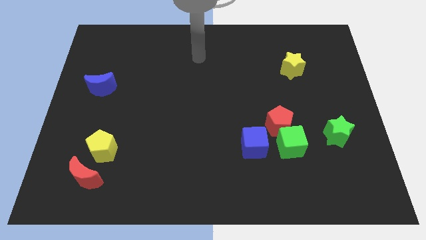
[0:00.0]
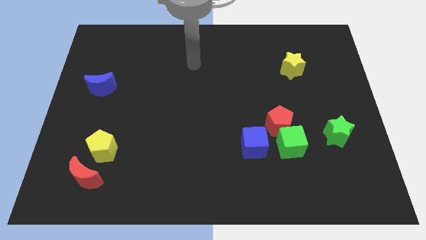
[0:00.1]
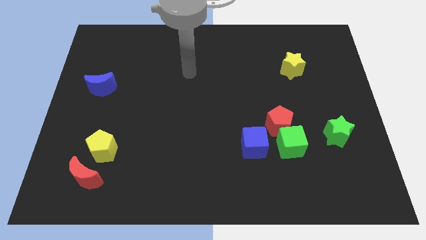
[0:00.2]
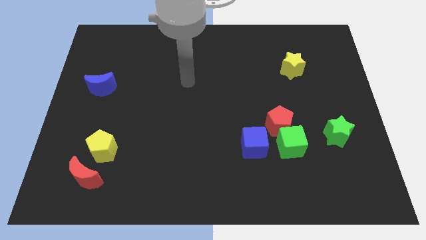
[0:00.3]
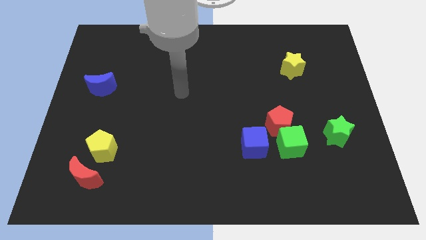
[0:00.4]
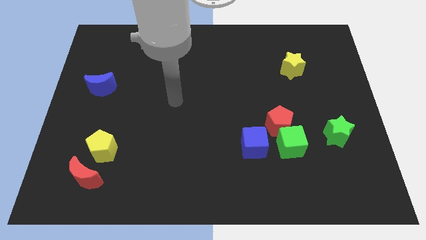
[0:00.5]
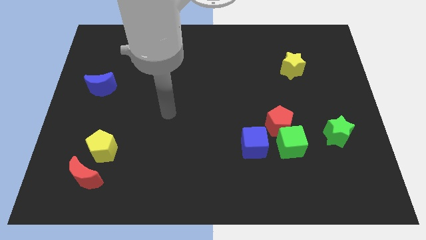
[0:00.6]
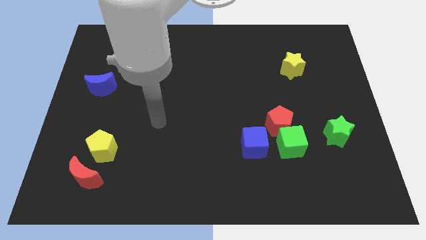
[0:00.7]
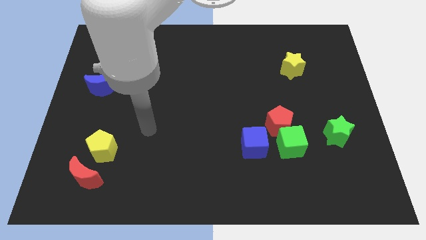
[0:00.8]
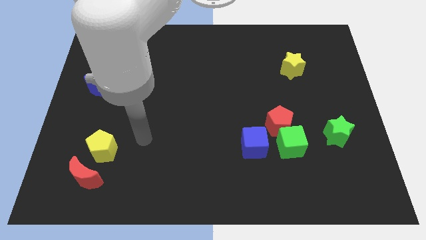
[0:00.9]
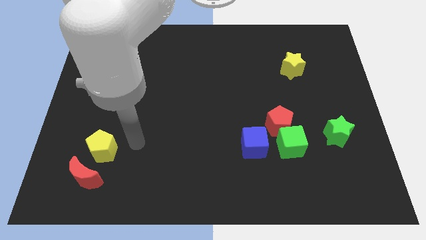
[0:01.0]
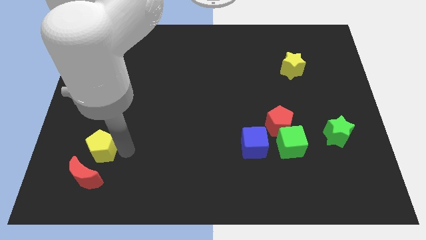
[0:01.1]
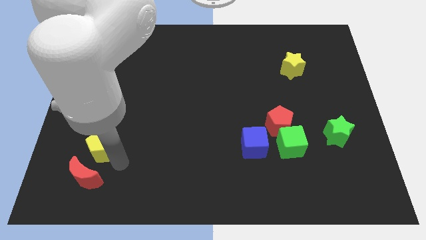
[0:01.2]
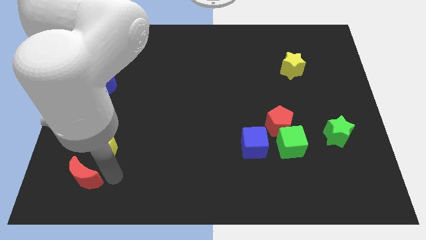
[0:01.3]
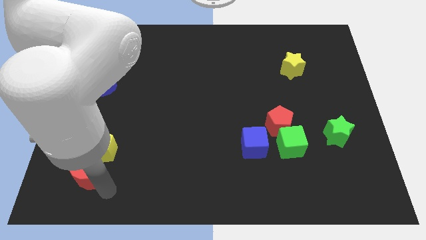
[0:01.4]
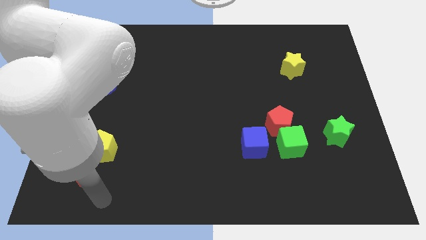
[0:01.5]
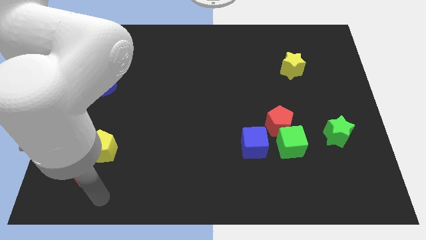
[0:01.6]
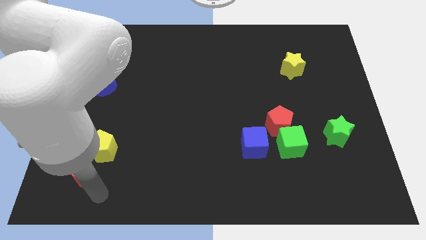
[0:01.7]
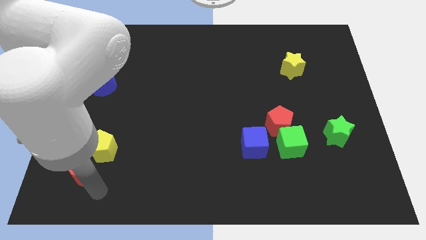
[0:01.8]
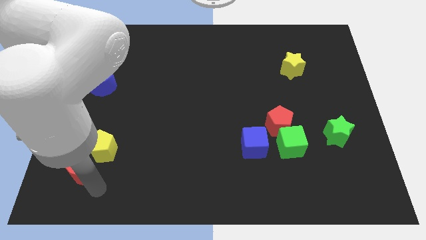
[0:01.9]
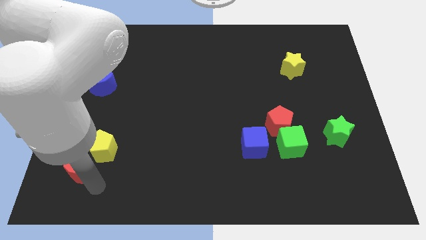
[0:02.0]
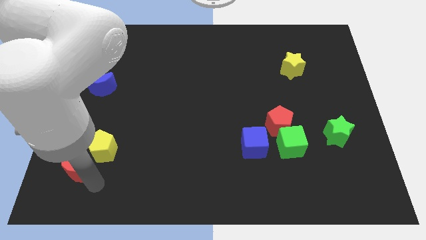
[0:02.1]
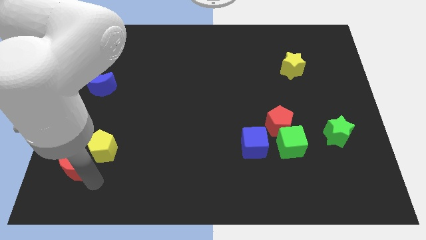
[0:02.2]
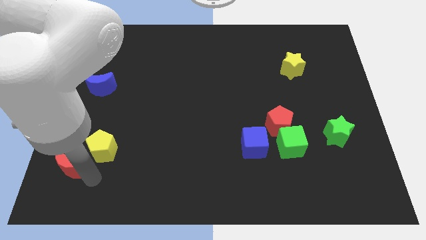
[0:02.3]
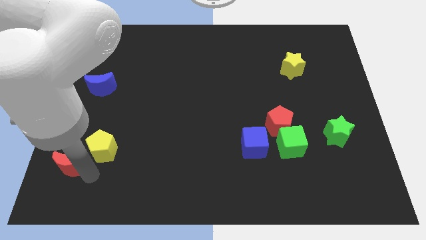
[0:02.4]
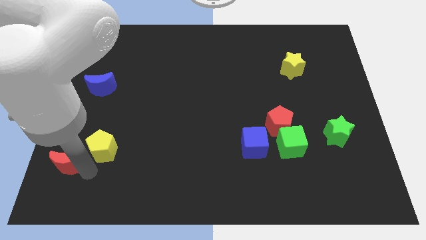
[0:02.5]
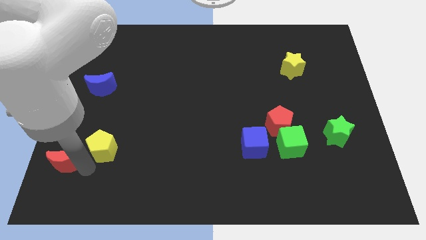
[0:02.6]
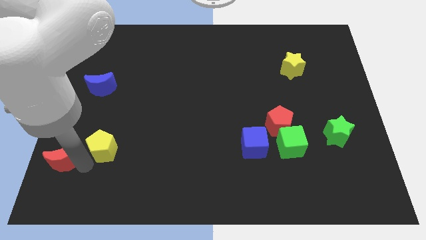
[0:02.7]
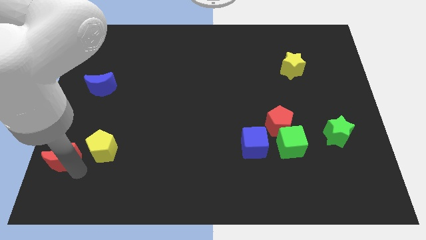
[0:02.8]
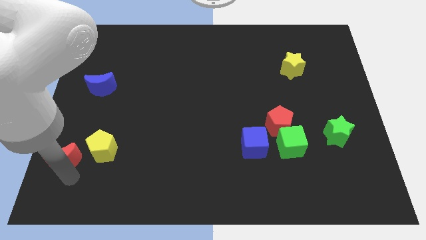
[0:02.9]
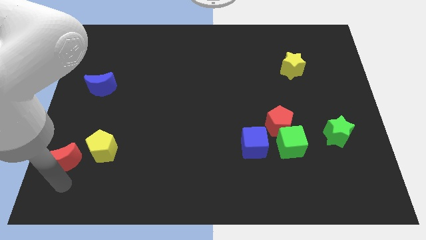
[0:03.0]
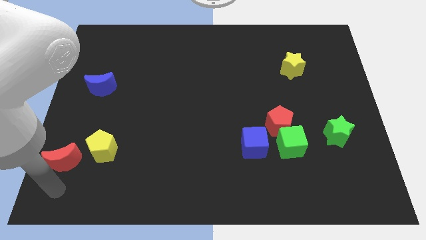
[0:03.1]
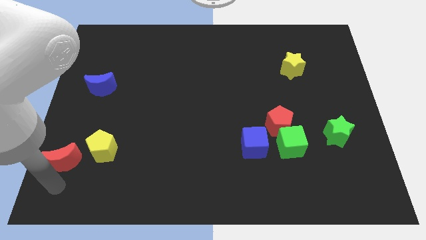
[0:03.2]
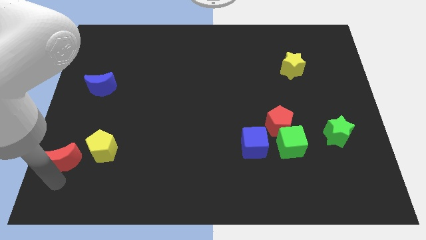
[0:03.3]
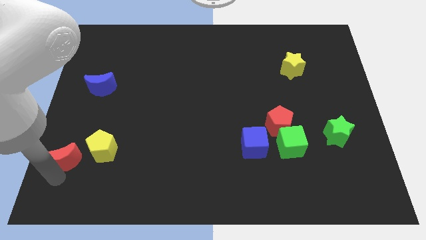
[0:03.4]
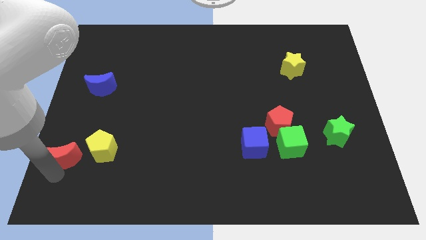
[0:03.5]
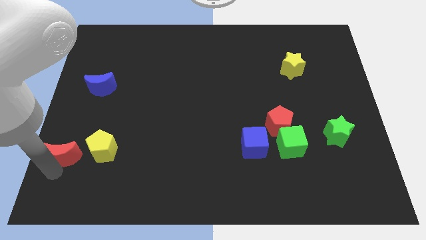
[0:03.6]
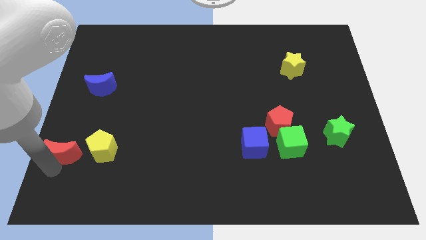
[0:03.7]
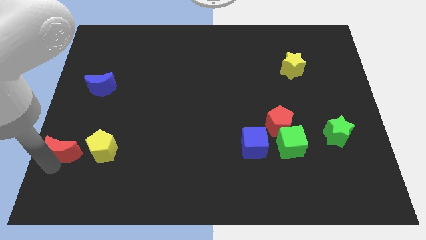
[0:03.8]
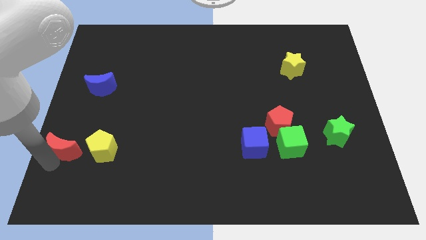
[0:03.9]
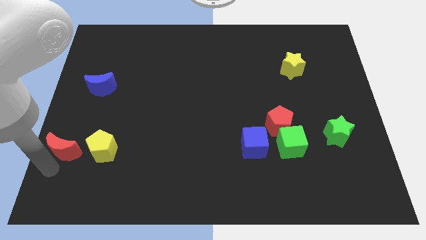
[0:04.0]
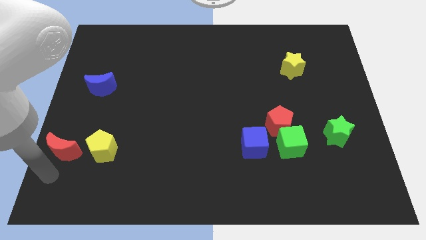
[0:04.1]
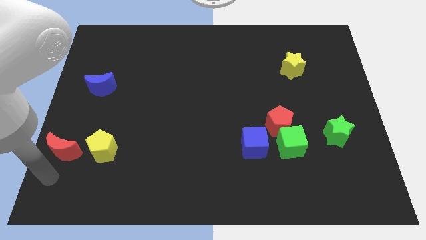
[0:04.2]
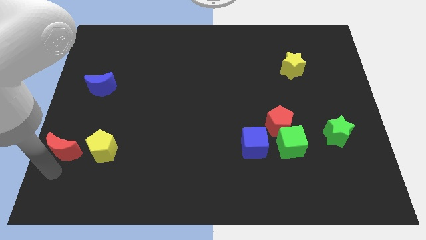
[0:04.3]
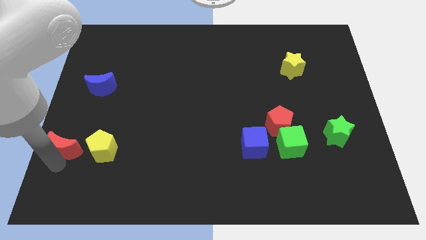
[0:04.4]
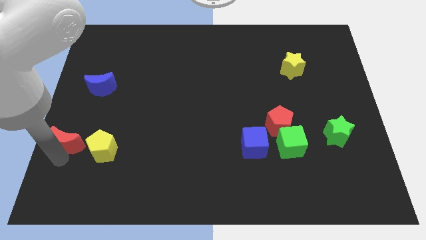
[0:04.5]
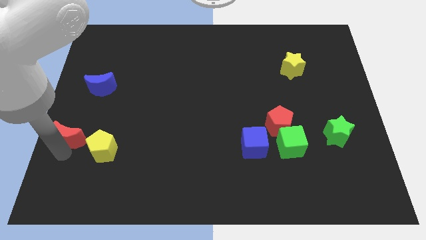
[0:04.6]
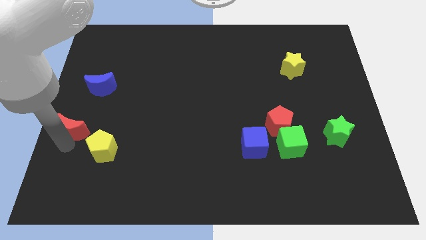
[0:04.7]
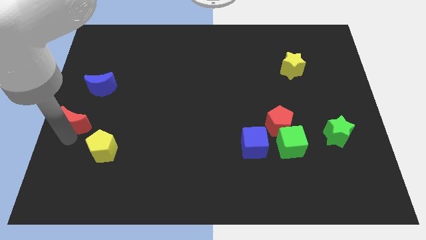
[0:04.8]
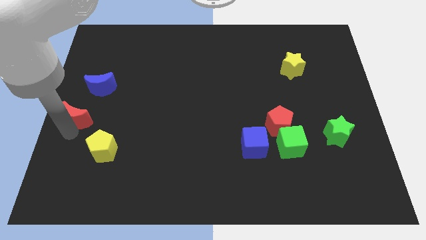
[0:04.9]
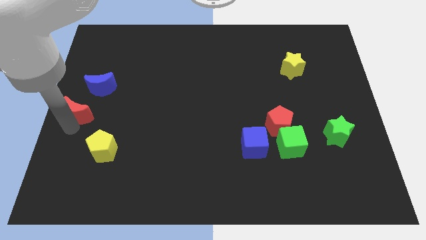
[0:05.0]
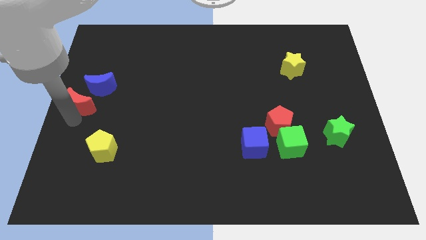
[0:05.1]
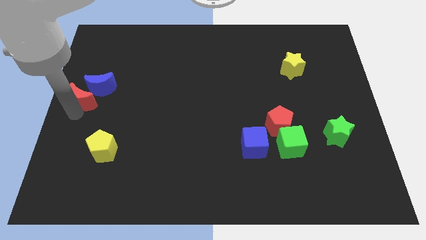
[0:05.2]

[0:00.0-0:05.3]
push the red moon towards the blue moon

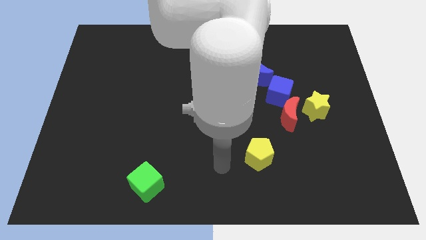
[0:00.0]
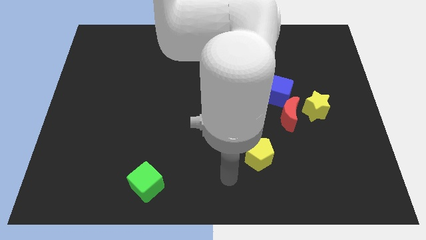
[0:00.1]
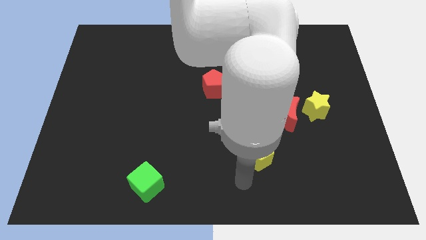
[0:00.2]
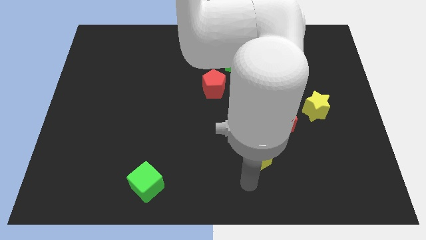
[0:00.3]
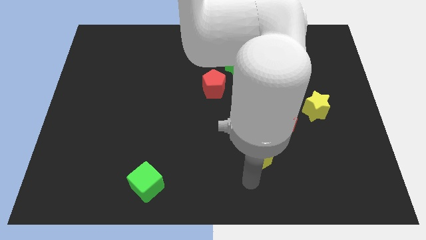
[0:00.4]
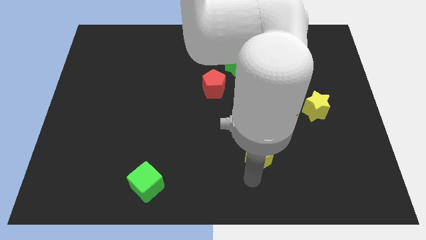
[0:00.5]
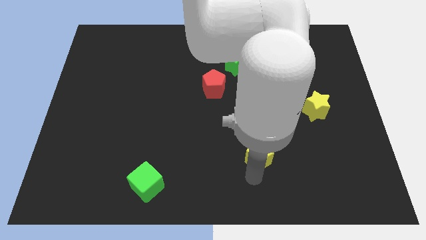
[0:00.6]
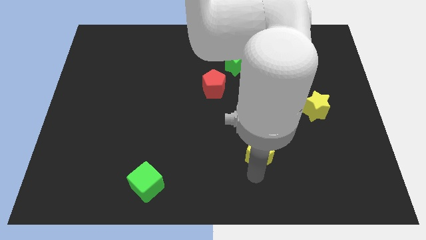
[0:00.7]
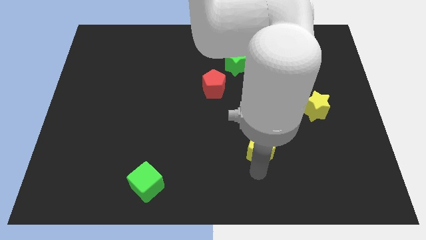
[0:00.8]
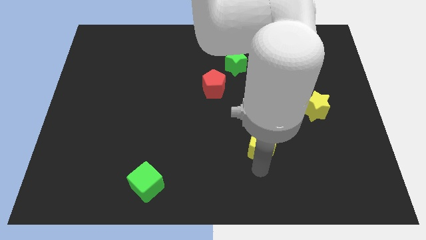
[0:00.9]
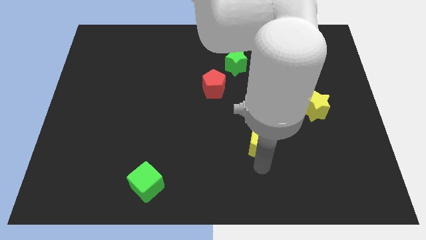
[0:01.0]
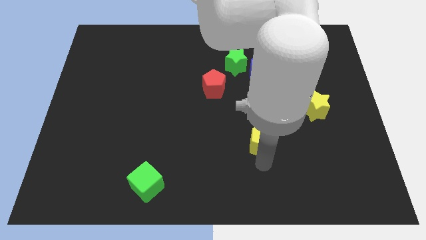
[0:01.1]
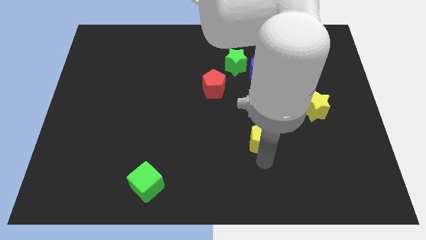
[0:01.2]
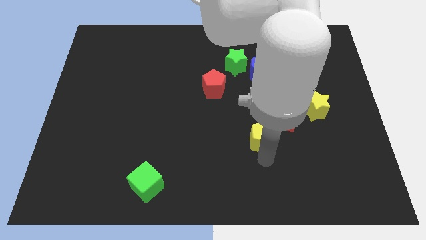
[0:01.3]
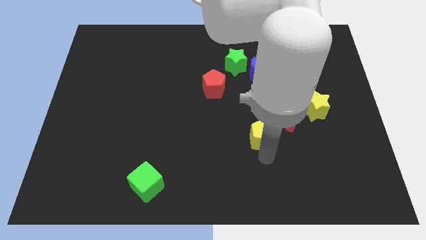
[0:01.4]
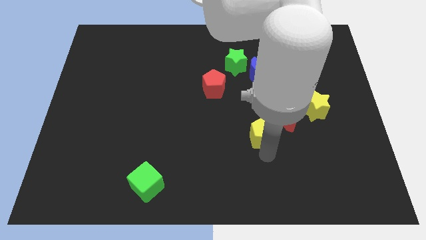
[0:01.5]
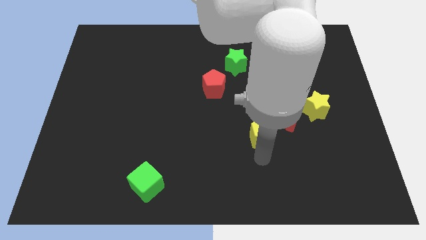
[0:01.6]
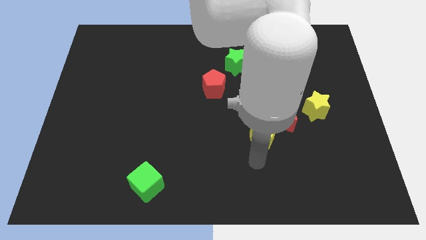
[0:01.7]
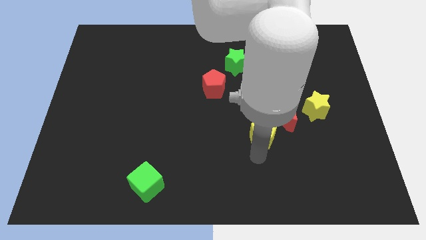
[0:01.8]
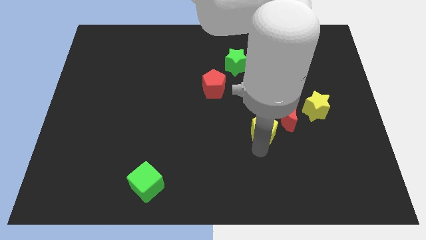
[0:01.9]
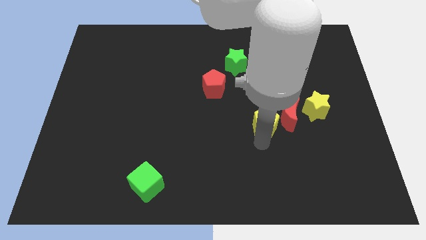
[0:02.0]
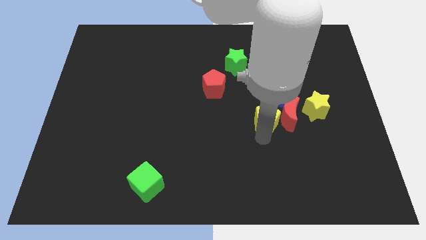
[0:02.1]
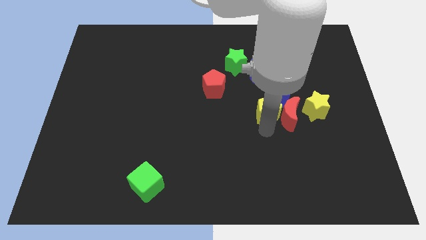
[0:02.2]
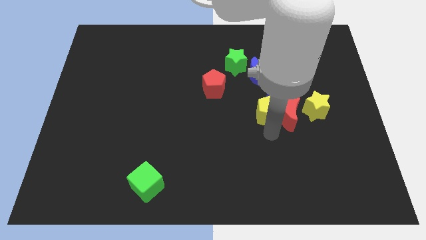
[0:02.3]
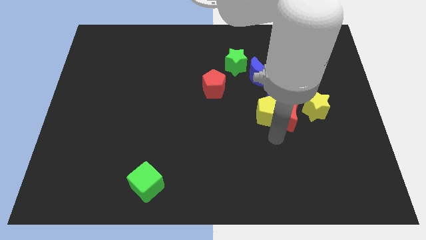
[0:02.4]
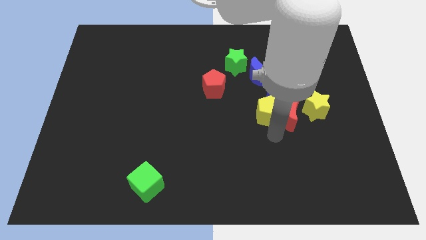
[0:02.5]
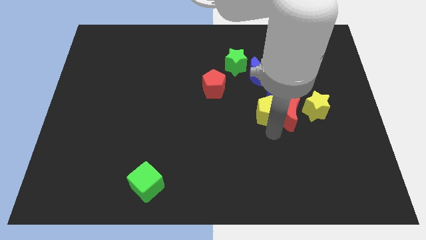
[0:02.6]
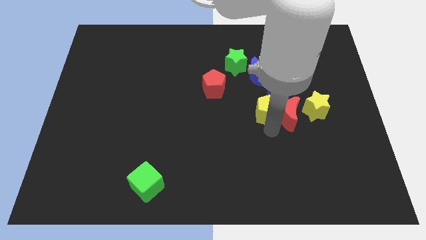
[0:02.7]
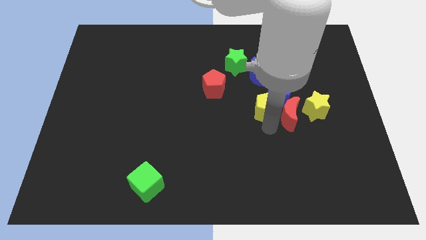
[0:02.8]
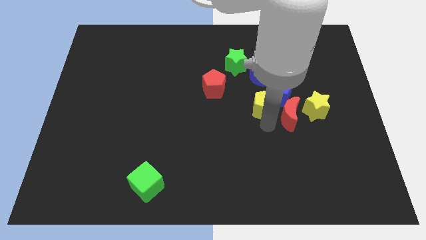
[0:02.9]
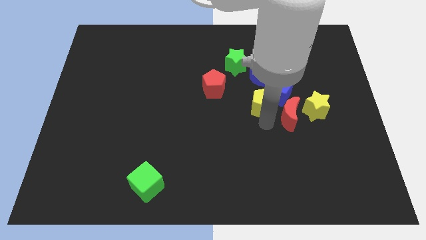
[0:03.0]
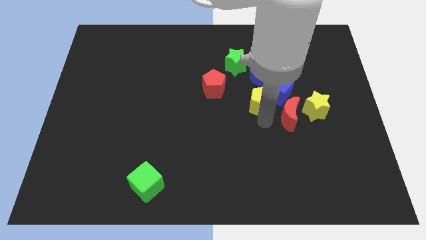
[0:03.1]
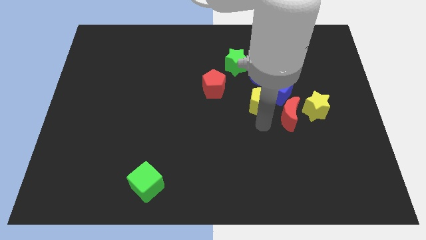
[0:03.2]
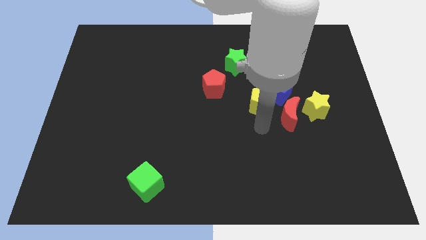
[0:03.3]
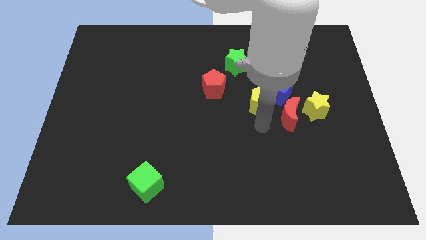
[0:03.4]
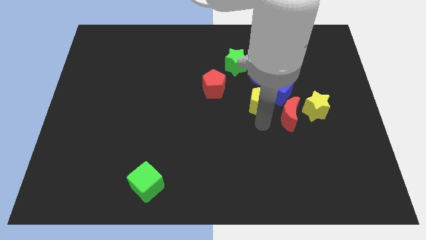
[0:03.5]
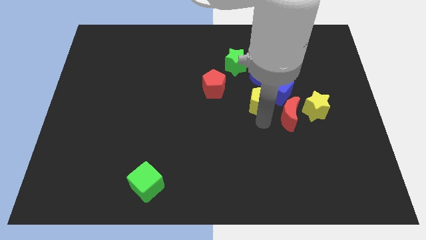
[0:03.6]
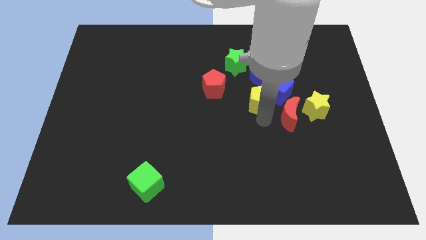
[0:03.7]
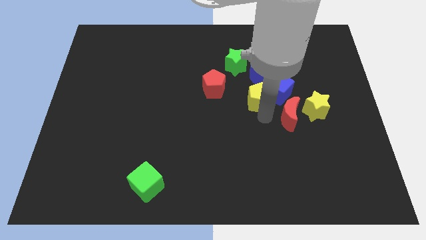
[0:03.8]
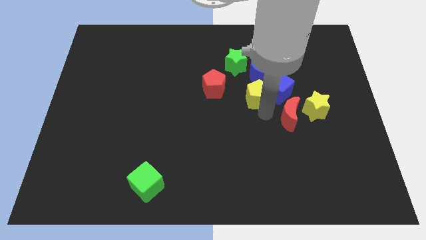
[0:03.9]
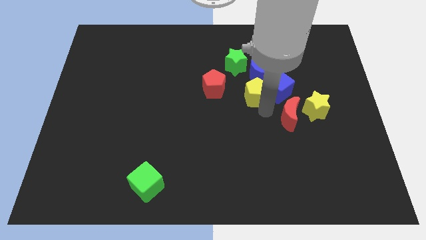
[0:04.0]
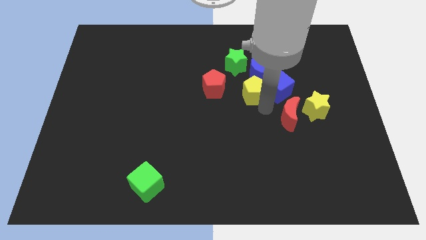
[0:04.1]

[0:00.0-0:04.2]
slide the yellow pentagon next to the blue moon
